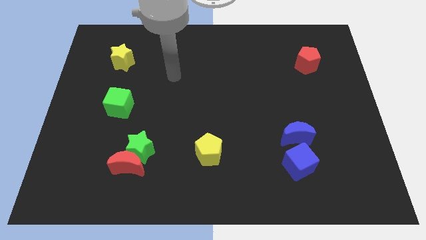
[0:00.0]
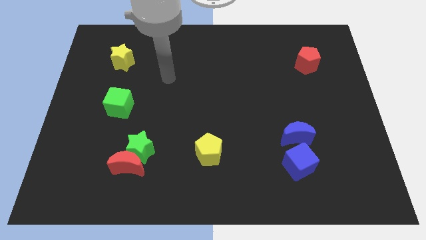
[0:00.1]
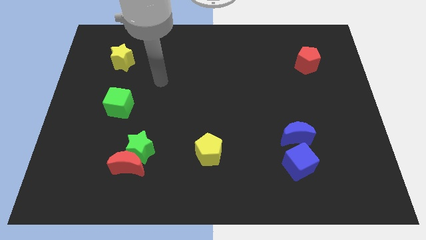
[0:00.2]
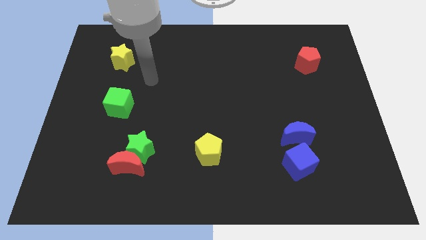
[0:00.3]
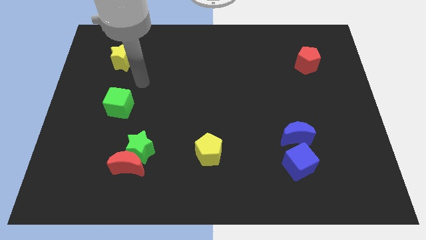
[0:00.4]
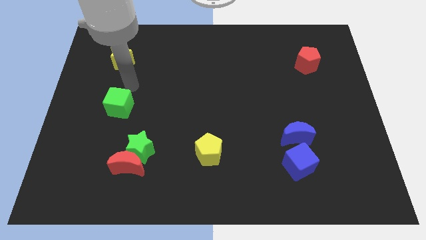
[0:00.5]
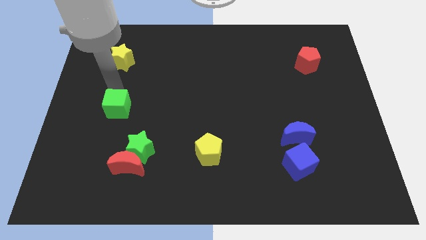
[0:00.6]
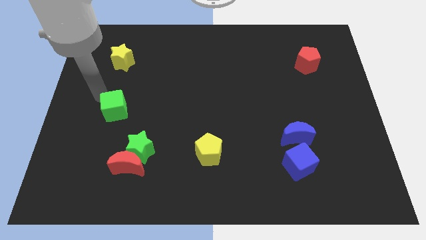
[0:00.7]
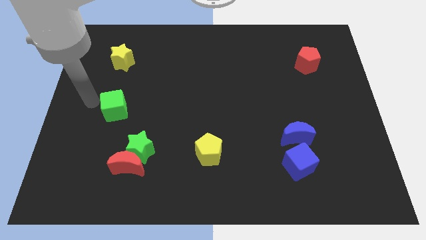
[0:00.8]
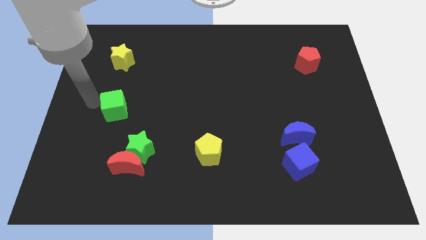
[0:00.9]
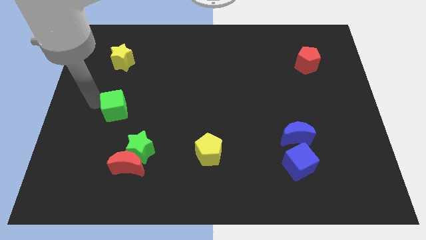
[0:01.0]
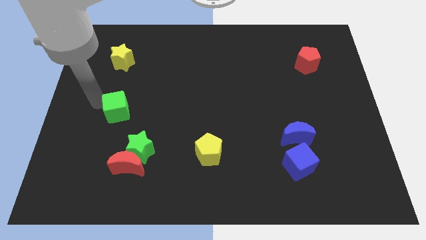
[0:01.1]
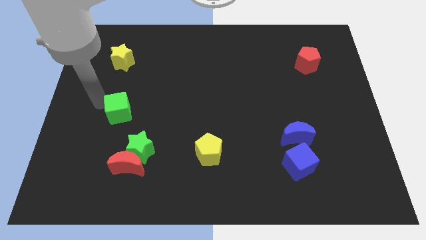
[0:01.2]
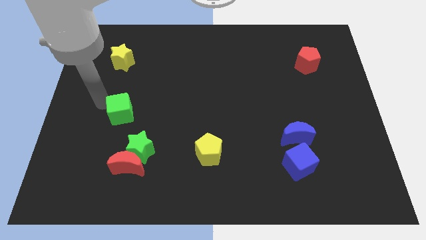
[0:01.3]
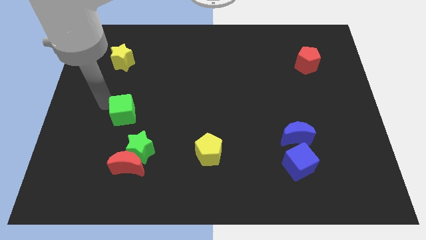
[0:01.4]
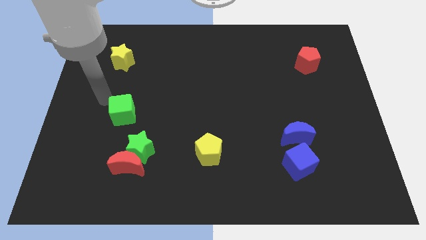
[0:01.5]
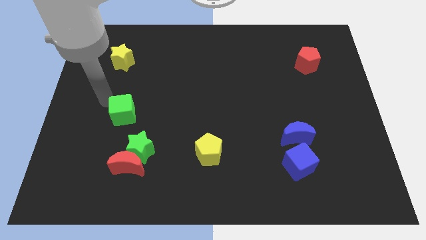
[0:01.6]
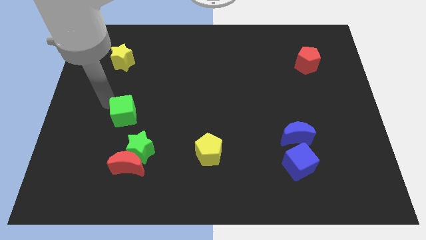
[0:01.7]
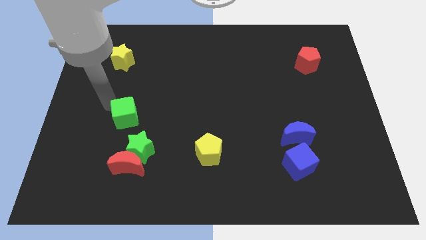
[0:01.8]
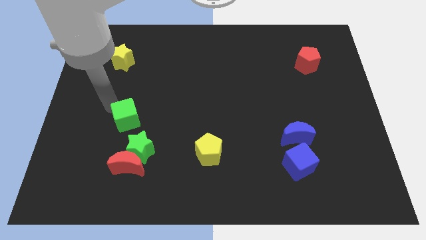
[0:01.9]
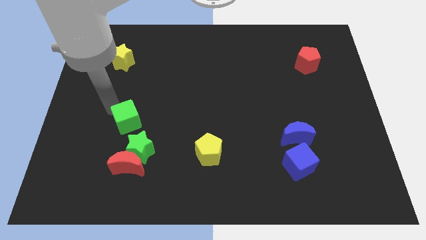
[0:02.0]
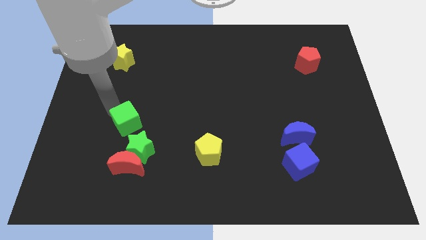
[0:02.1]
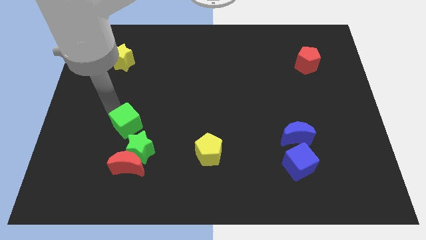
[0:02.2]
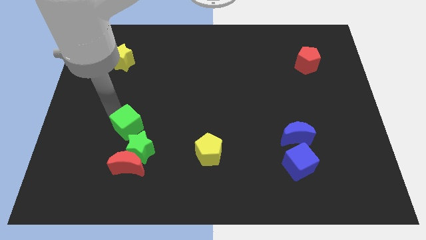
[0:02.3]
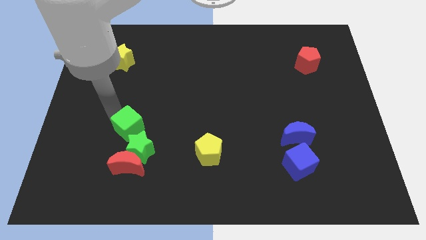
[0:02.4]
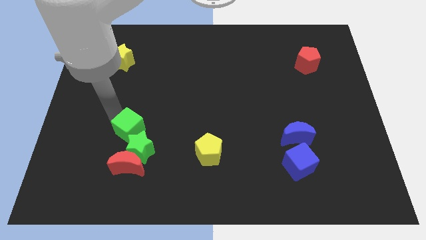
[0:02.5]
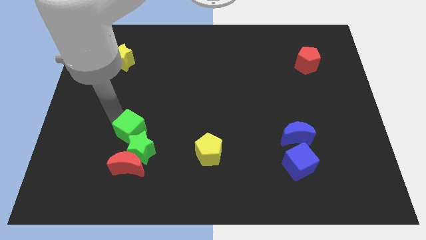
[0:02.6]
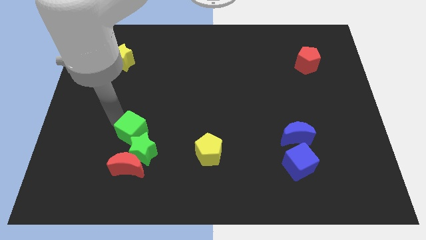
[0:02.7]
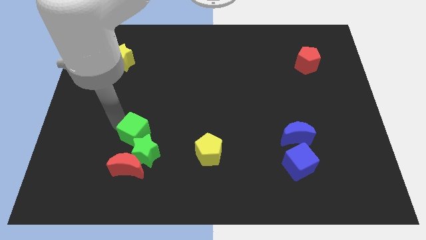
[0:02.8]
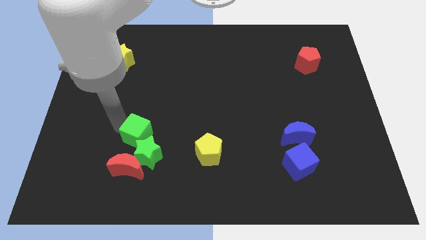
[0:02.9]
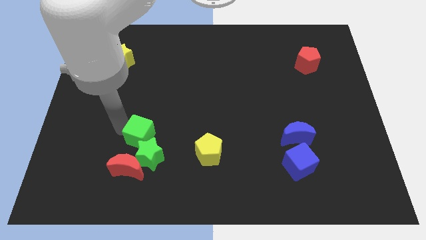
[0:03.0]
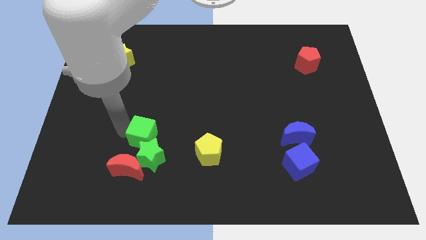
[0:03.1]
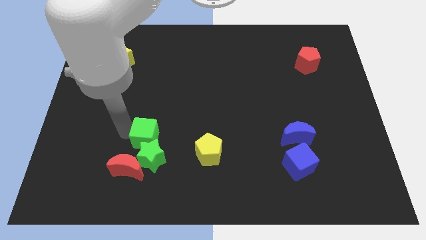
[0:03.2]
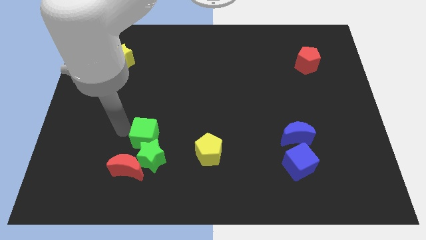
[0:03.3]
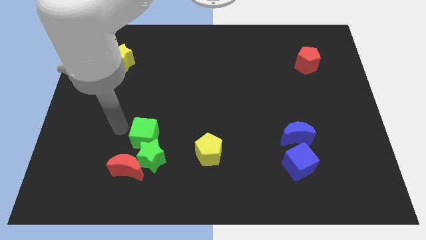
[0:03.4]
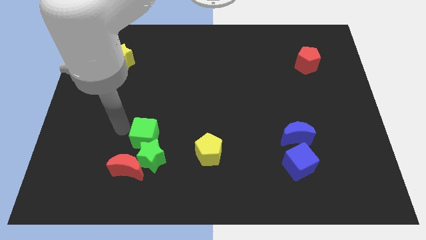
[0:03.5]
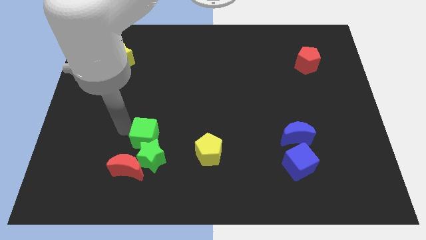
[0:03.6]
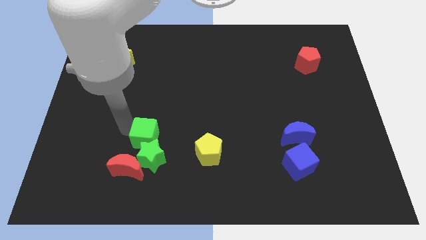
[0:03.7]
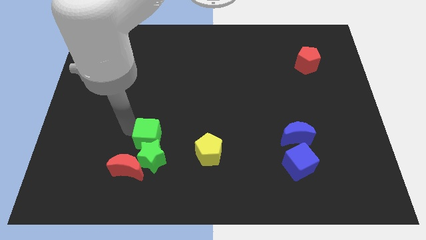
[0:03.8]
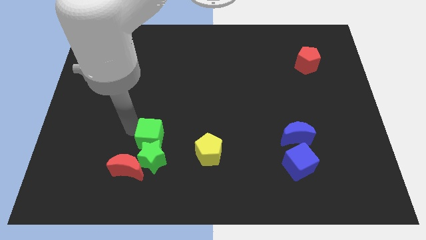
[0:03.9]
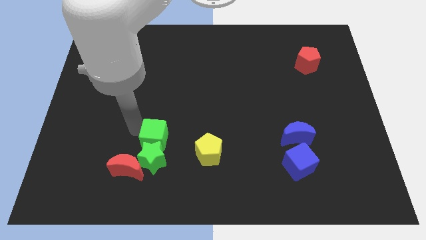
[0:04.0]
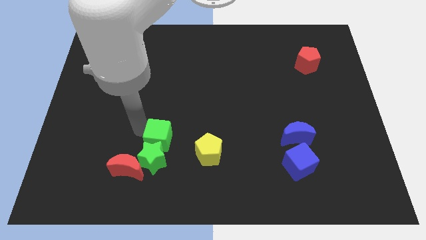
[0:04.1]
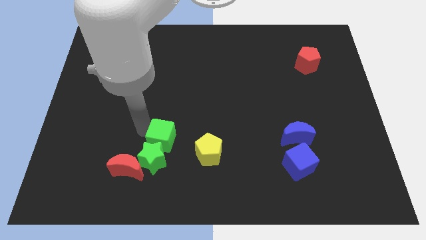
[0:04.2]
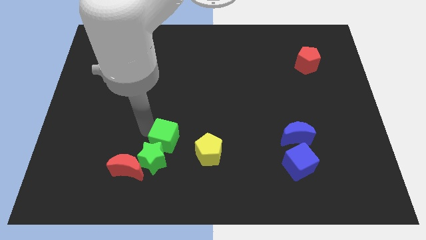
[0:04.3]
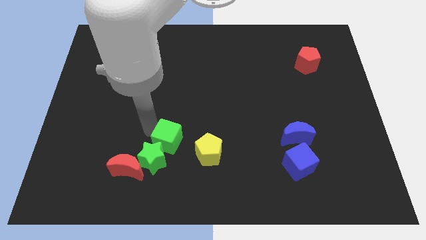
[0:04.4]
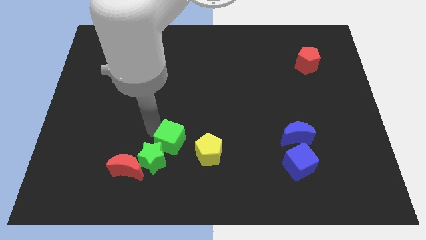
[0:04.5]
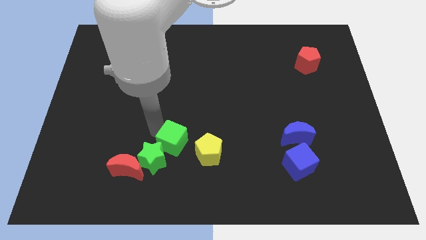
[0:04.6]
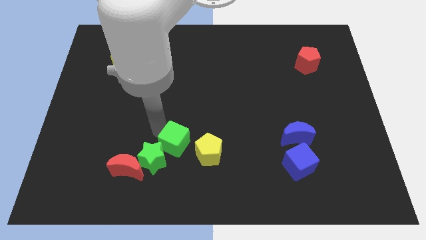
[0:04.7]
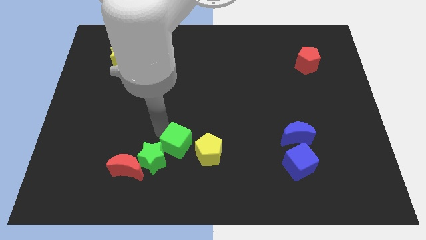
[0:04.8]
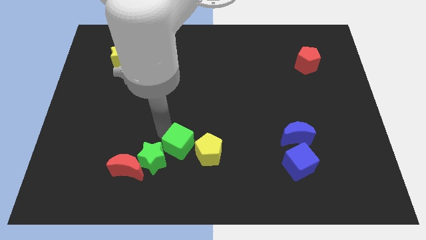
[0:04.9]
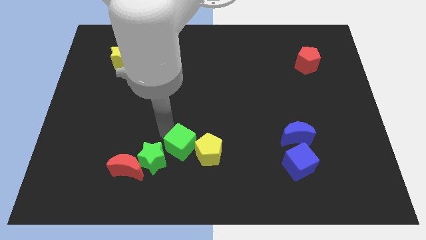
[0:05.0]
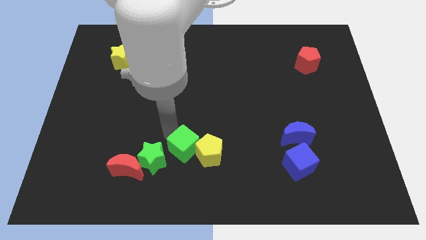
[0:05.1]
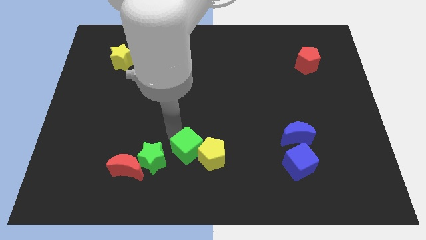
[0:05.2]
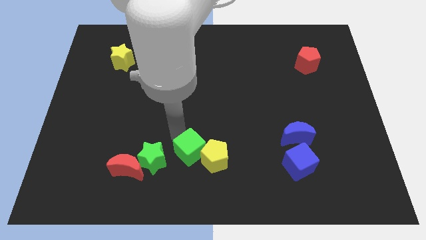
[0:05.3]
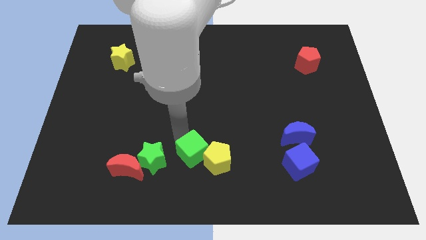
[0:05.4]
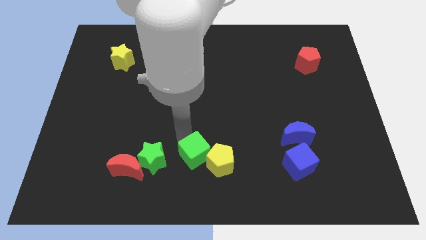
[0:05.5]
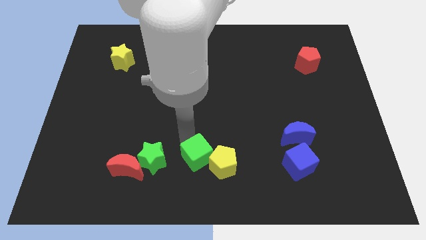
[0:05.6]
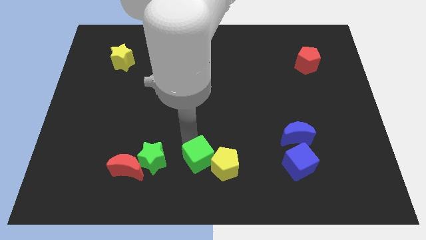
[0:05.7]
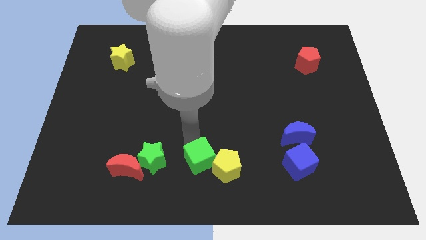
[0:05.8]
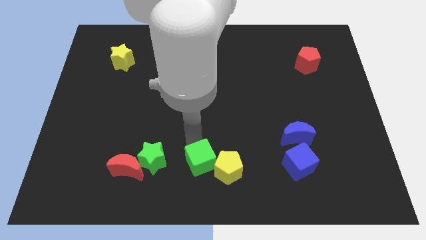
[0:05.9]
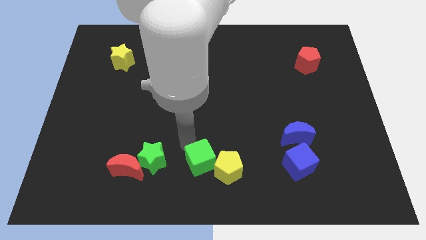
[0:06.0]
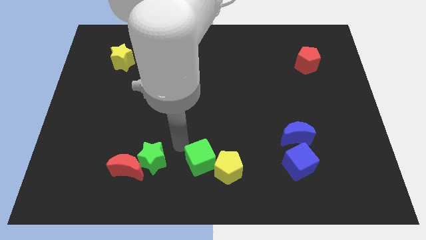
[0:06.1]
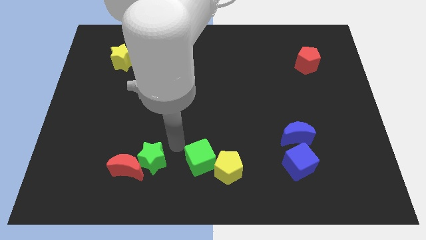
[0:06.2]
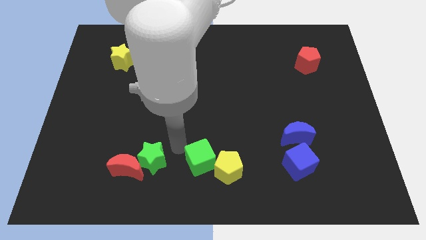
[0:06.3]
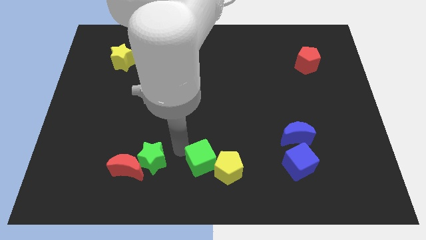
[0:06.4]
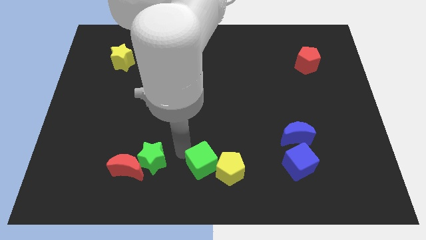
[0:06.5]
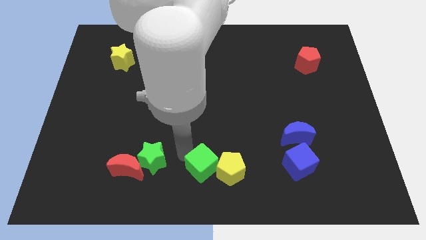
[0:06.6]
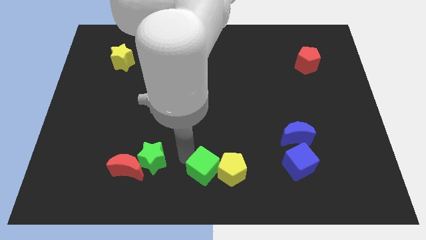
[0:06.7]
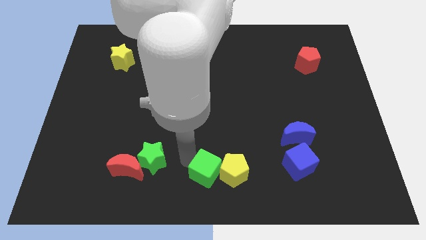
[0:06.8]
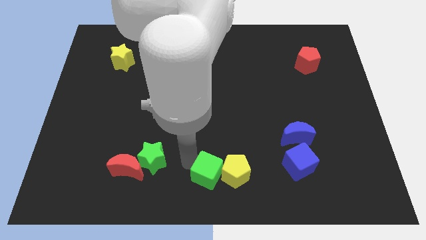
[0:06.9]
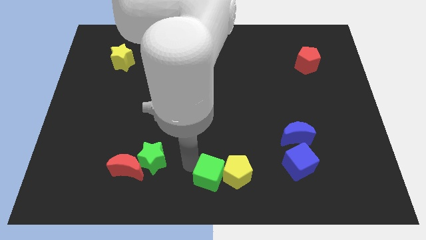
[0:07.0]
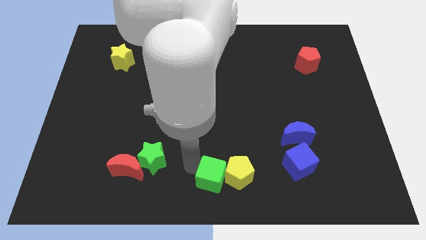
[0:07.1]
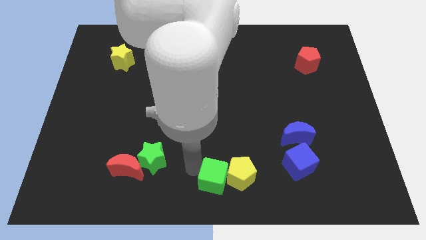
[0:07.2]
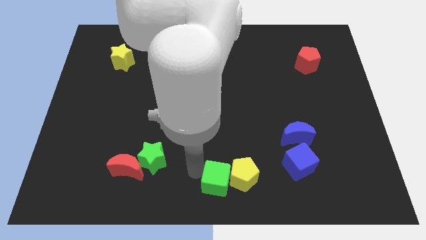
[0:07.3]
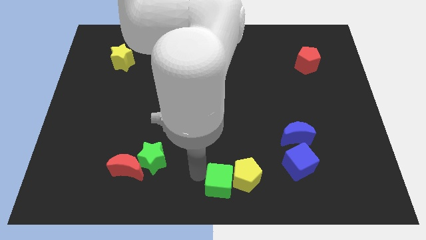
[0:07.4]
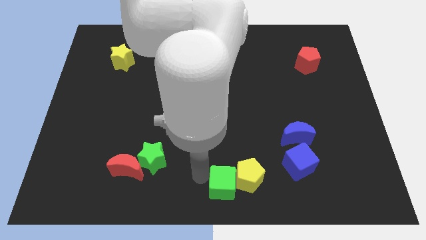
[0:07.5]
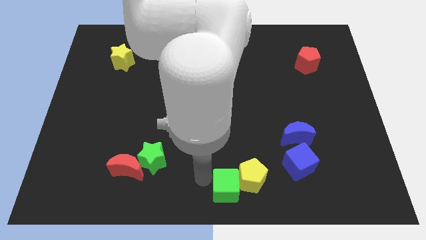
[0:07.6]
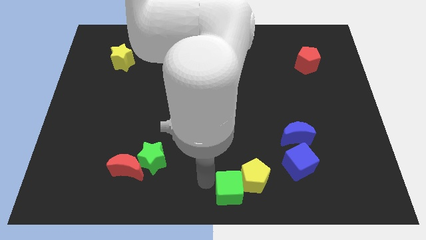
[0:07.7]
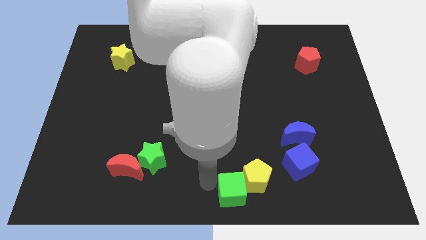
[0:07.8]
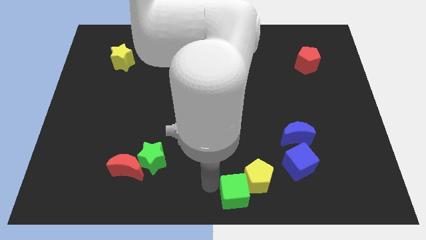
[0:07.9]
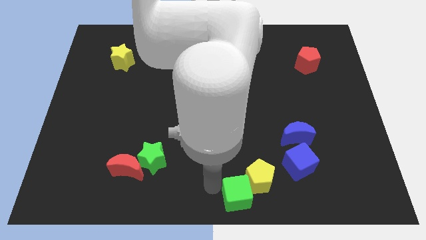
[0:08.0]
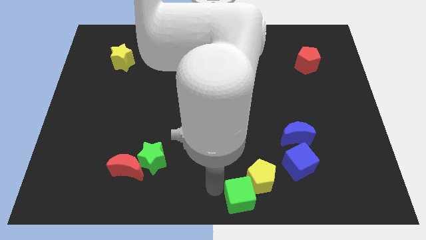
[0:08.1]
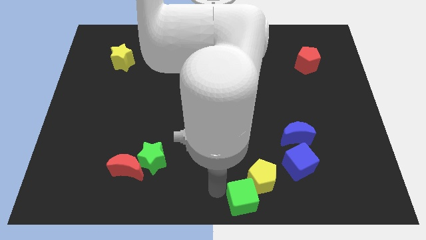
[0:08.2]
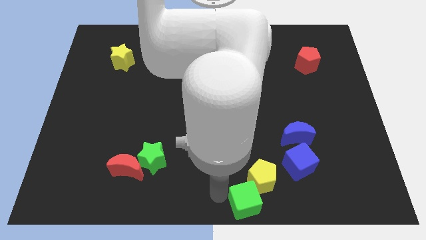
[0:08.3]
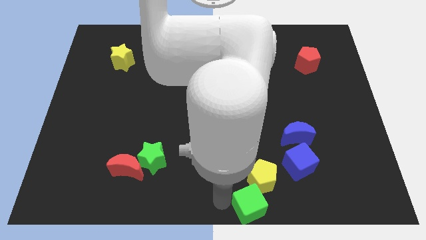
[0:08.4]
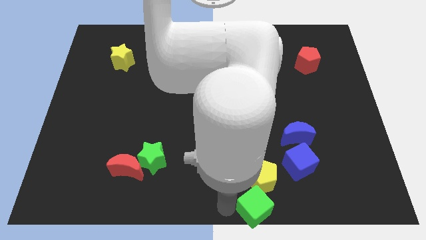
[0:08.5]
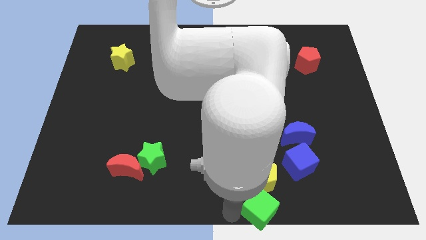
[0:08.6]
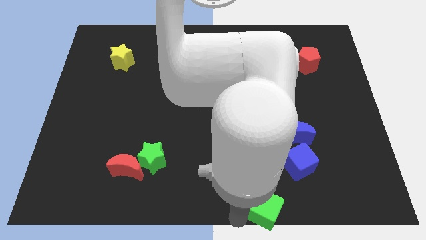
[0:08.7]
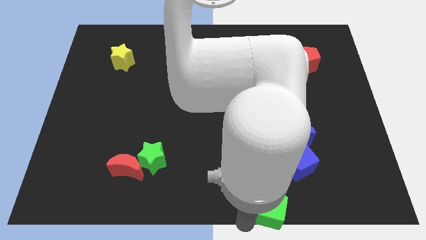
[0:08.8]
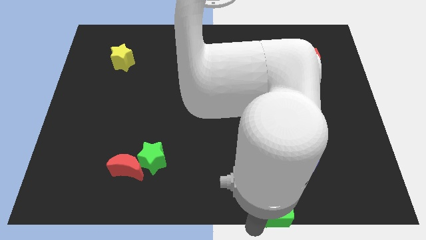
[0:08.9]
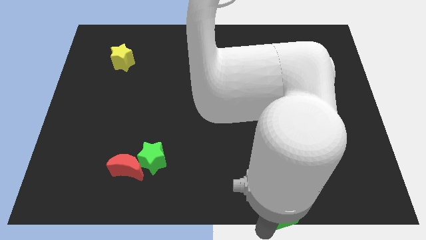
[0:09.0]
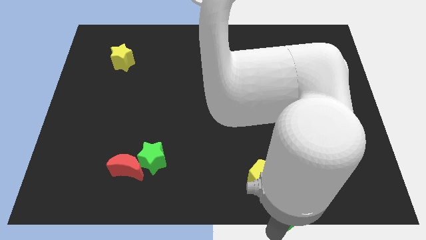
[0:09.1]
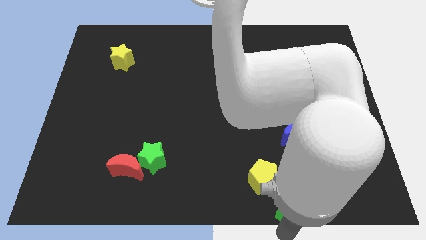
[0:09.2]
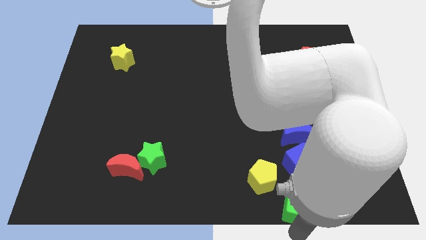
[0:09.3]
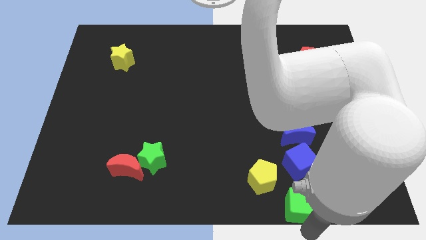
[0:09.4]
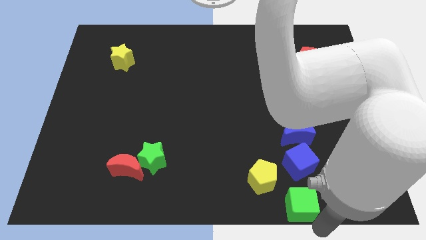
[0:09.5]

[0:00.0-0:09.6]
slide the green cube below the blue moon
